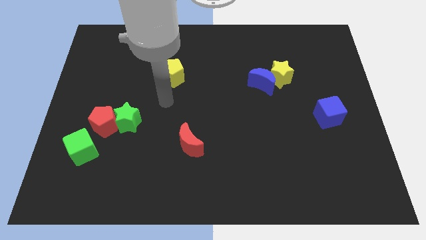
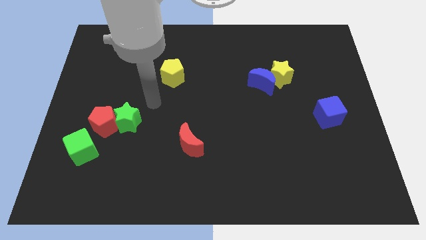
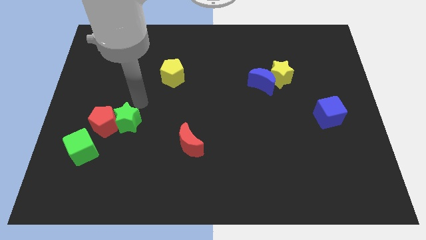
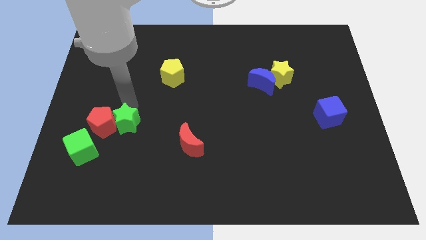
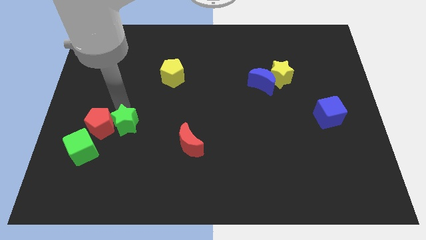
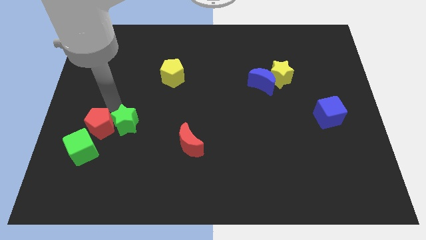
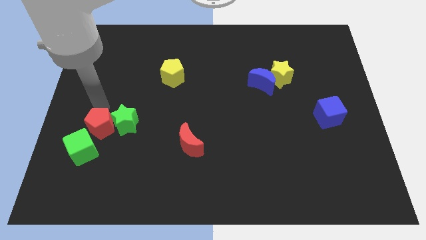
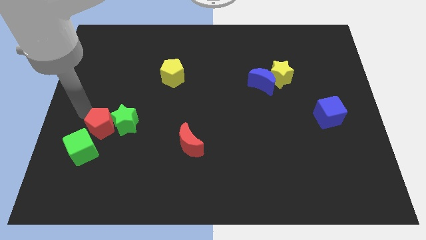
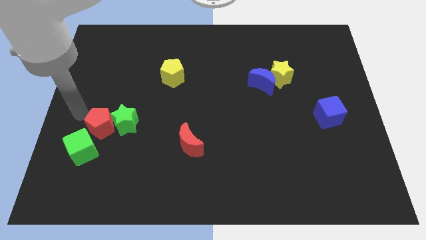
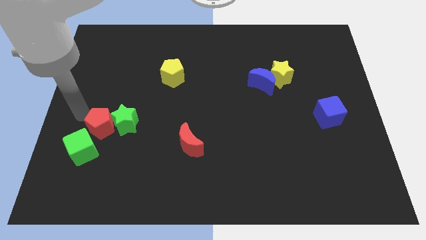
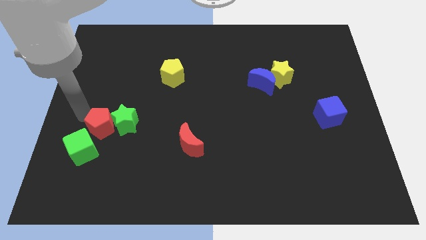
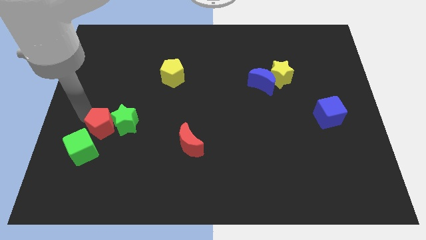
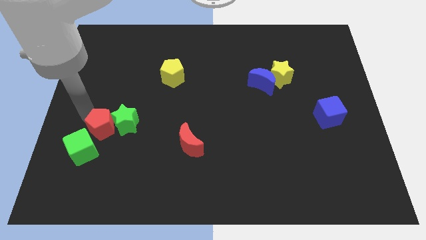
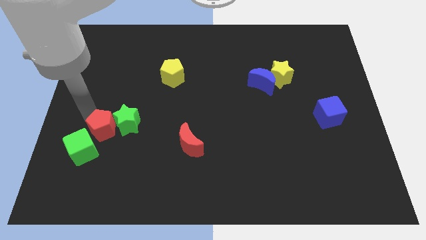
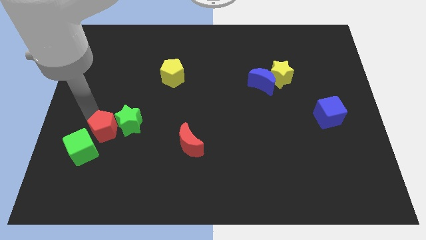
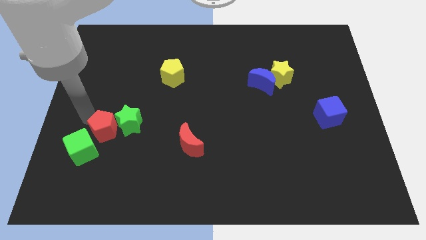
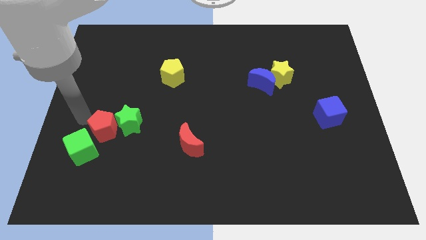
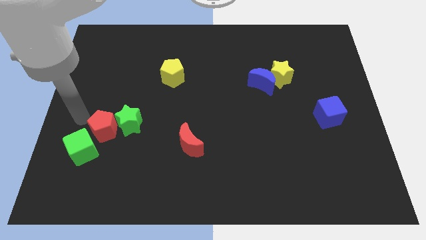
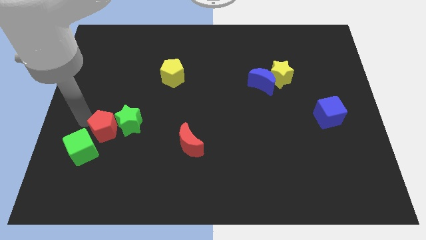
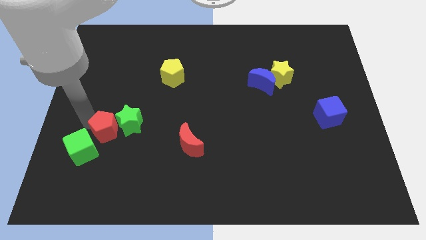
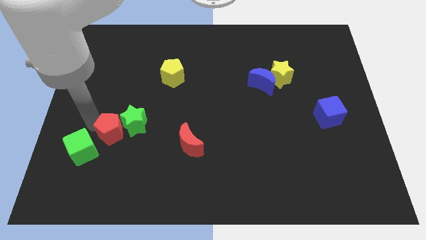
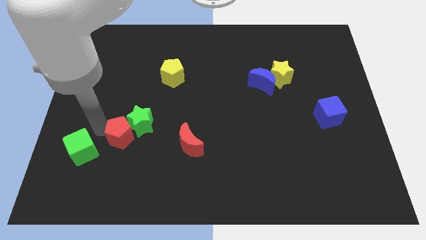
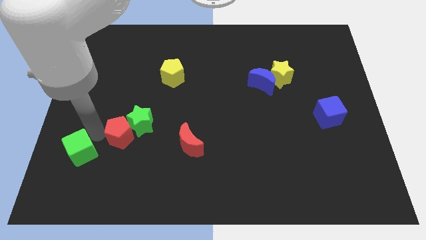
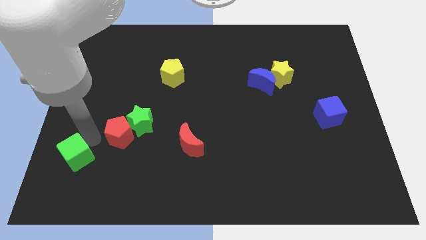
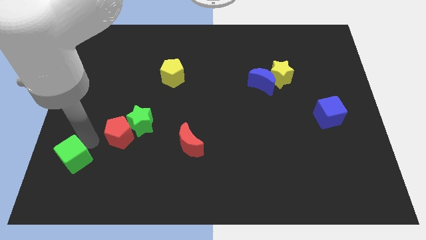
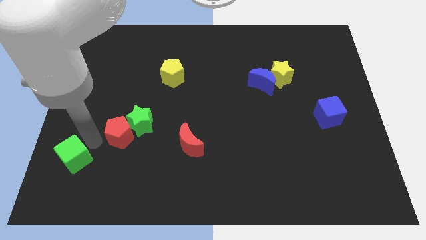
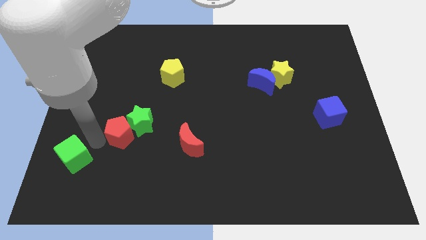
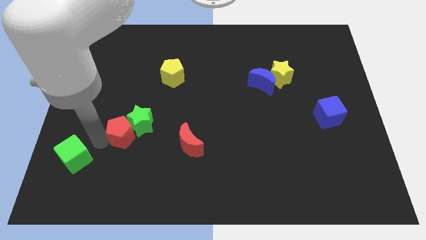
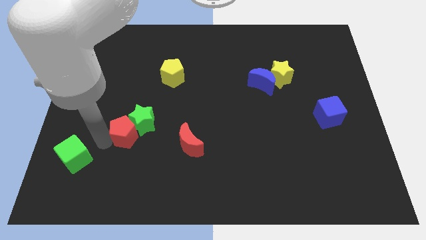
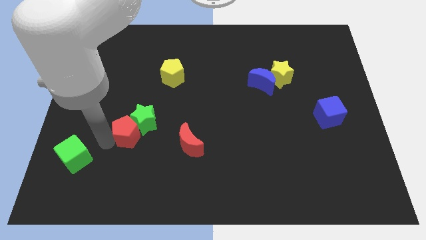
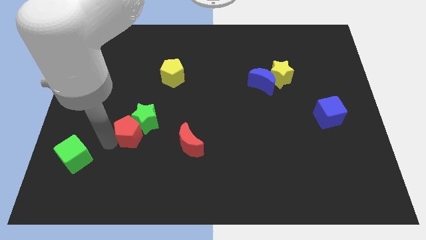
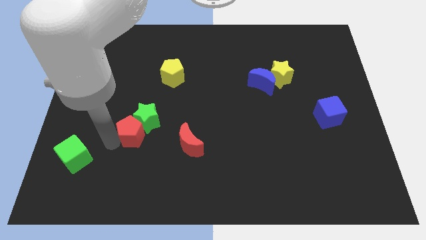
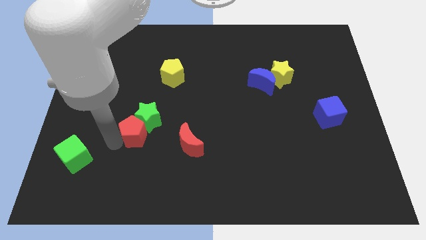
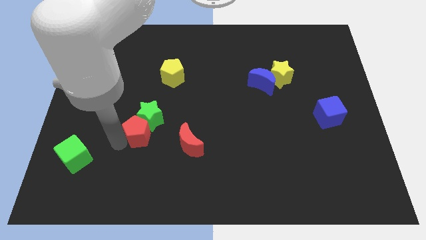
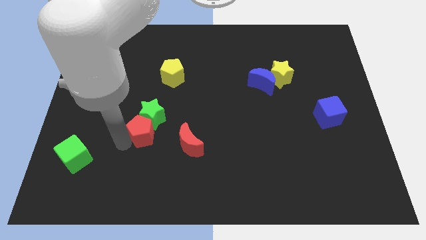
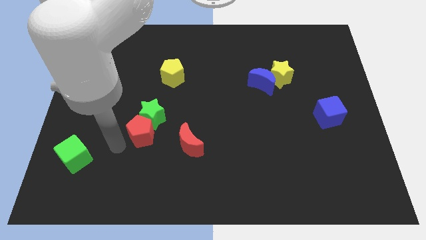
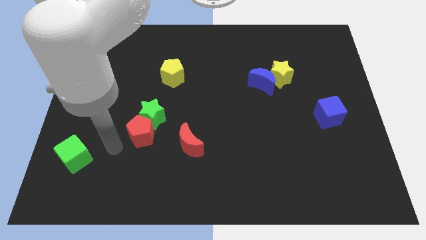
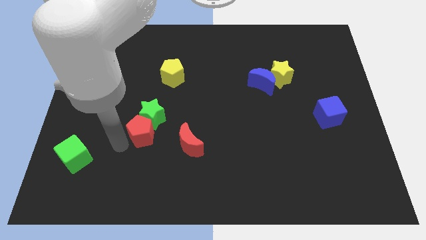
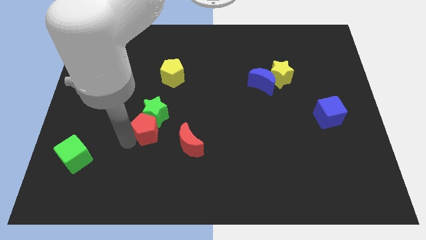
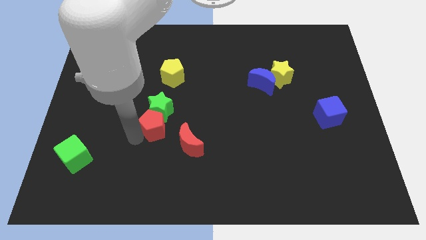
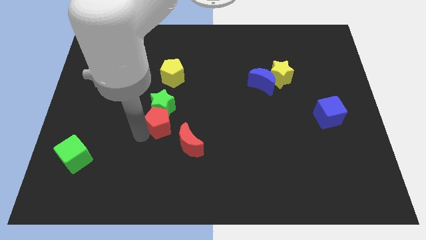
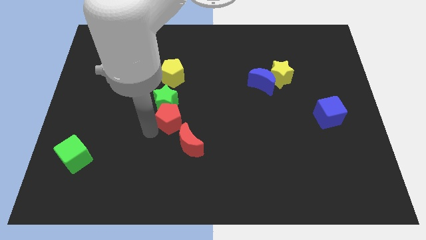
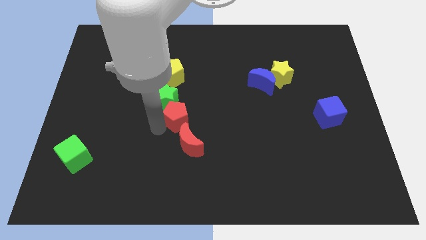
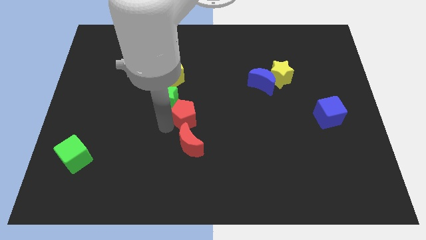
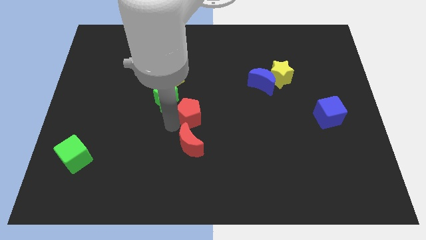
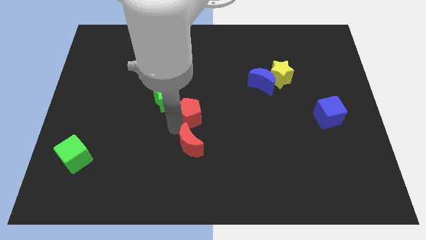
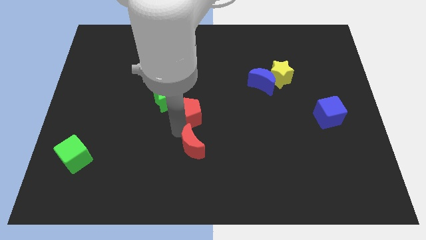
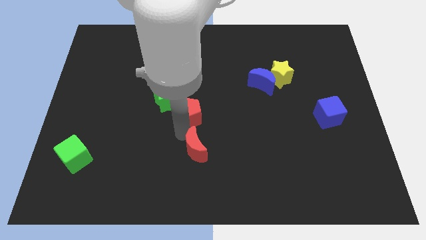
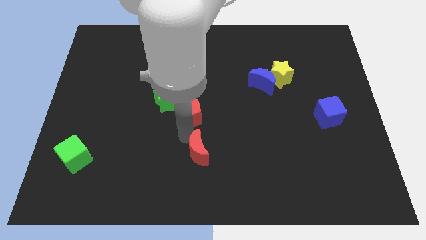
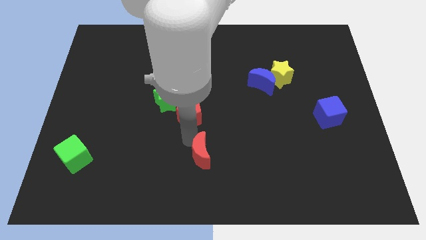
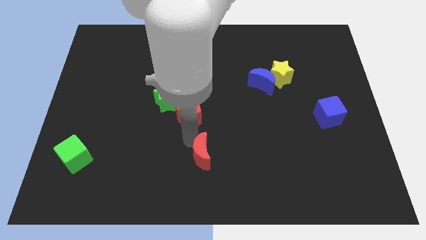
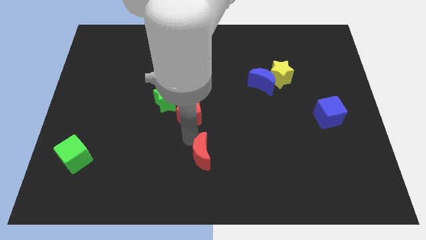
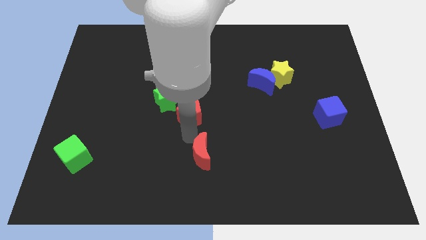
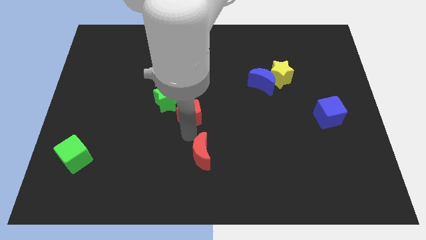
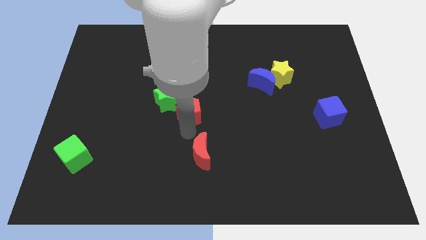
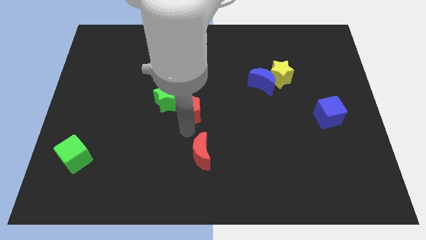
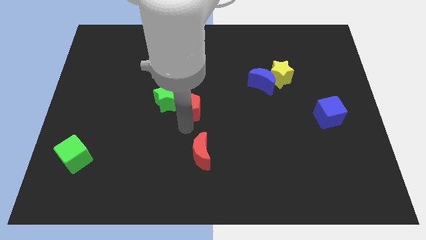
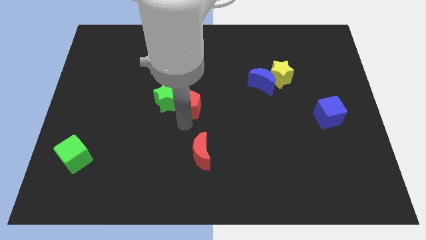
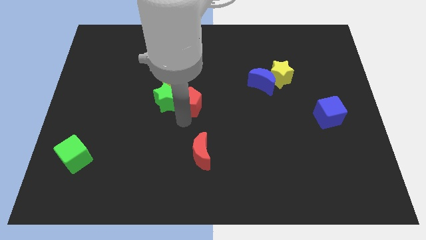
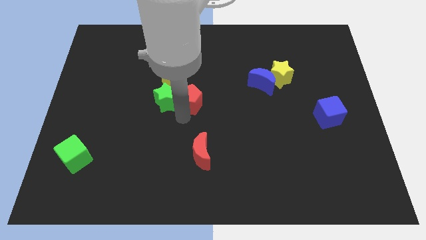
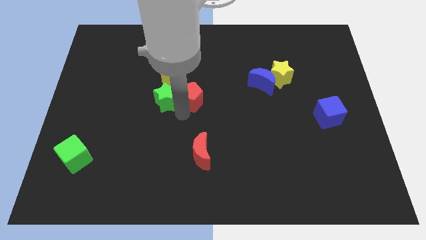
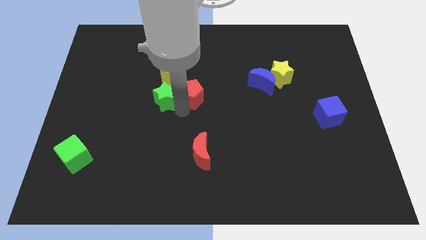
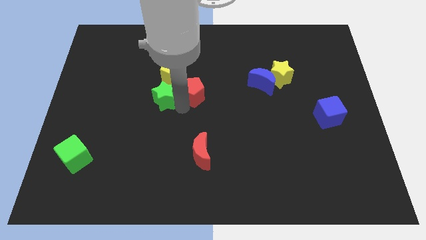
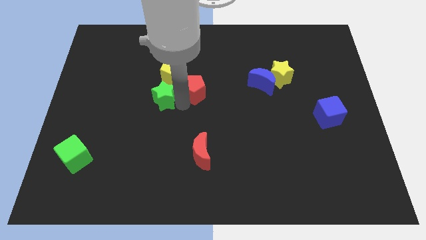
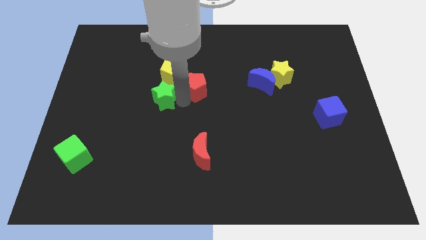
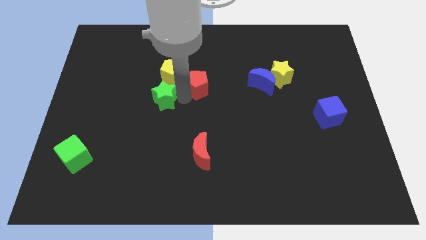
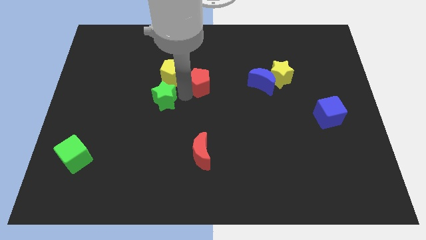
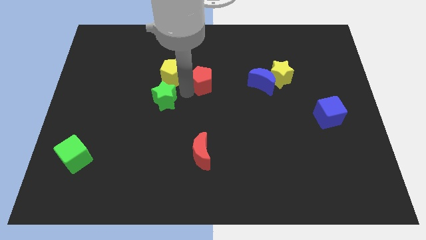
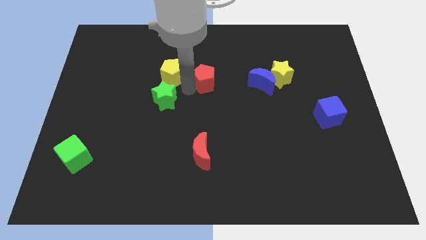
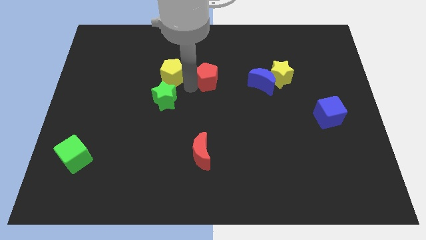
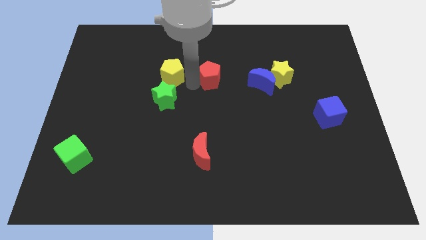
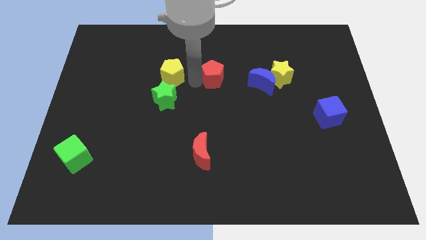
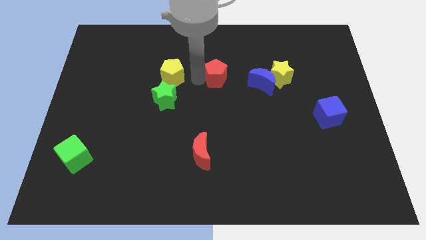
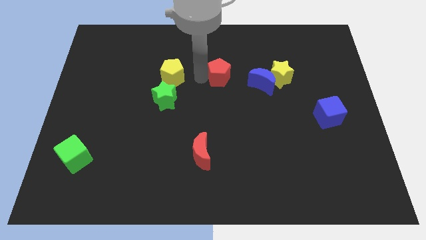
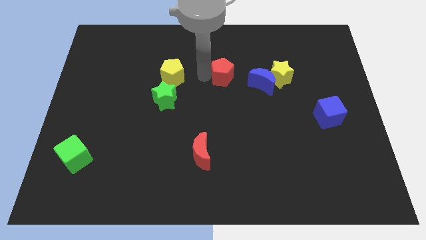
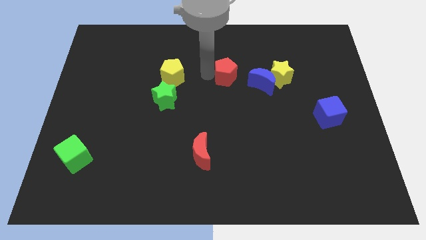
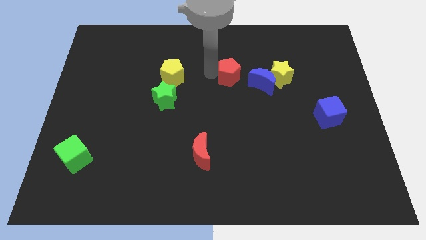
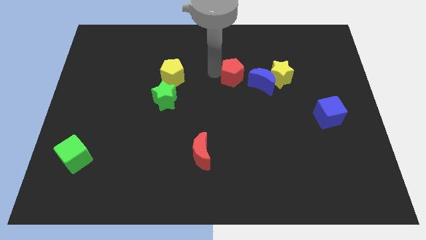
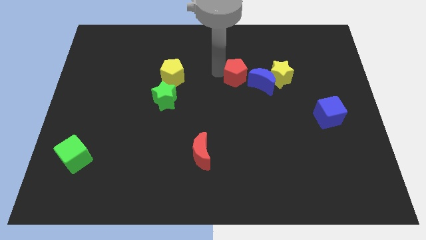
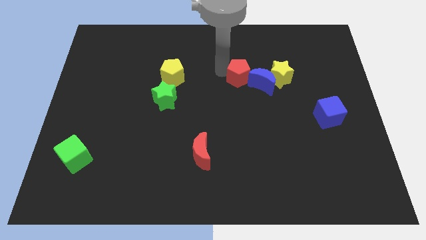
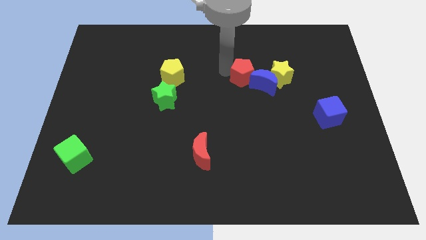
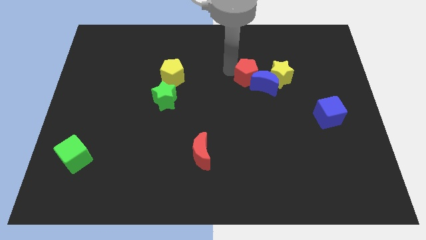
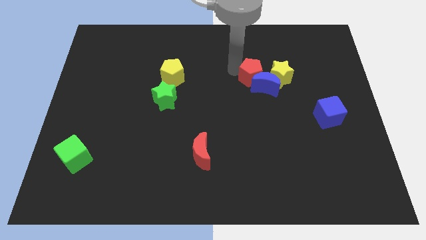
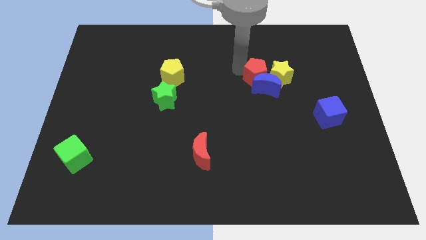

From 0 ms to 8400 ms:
put the red pentagon to the yellow star
